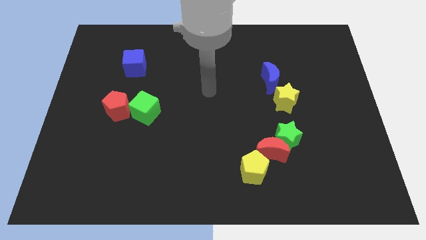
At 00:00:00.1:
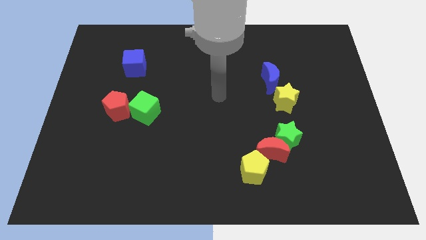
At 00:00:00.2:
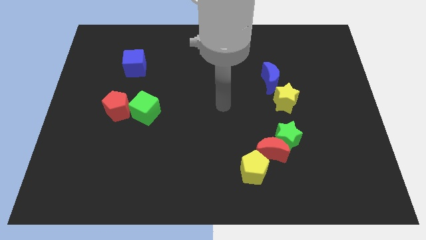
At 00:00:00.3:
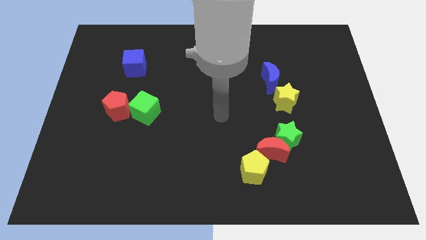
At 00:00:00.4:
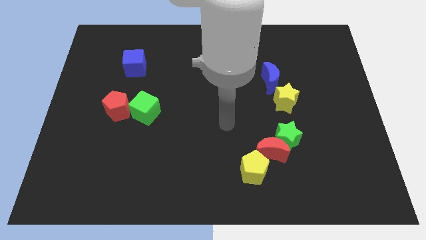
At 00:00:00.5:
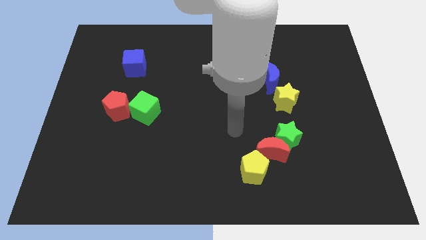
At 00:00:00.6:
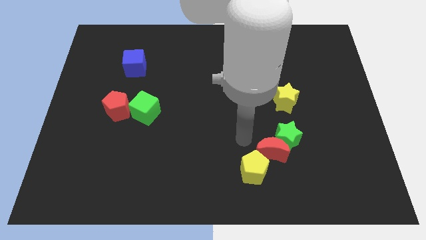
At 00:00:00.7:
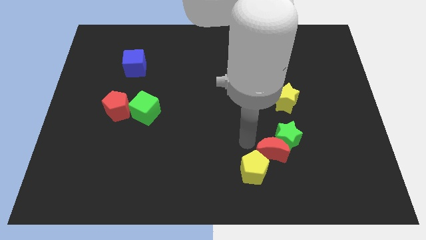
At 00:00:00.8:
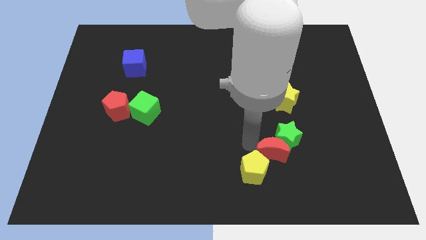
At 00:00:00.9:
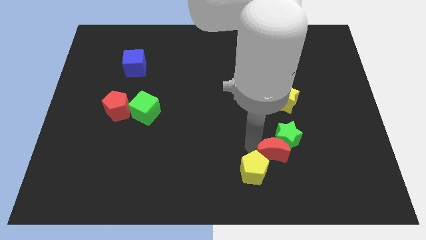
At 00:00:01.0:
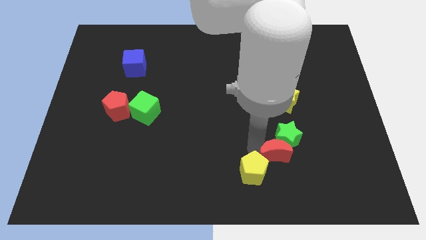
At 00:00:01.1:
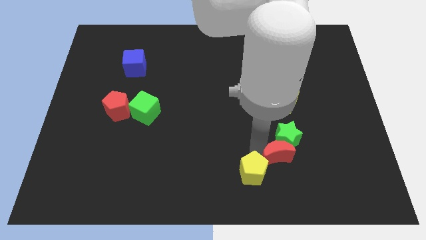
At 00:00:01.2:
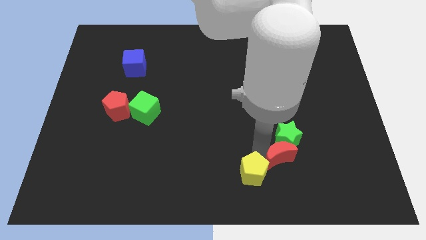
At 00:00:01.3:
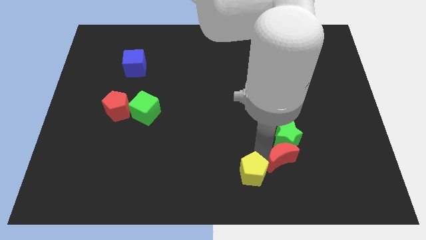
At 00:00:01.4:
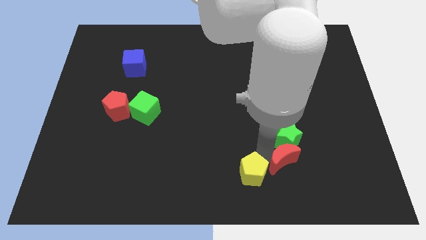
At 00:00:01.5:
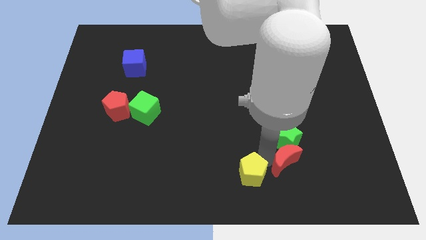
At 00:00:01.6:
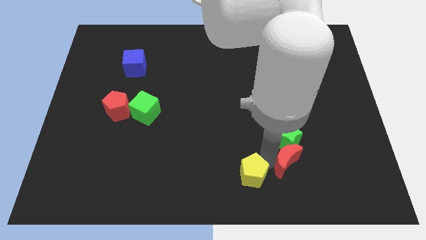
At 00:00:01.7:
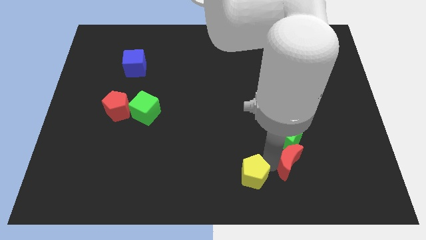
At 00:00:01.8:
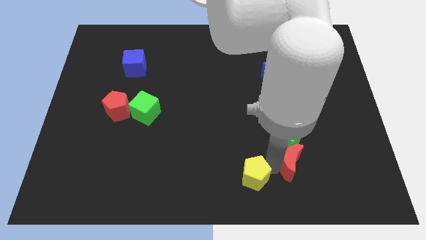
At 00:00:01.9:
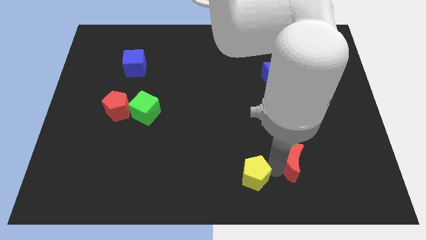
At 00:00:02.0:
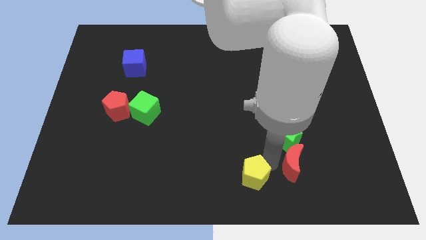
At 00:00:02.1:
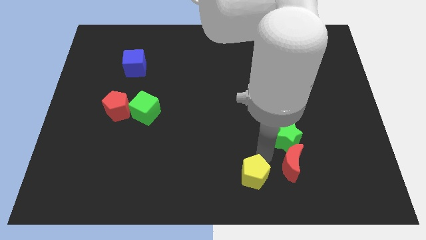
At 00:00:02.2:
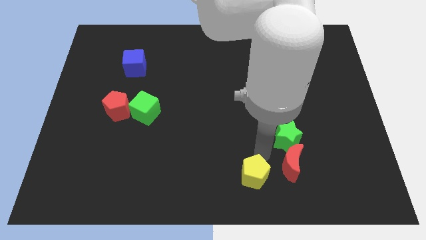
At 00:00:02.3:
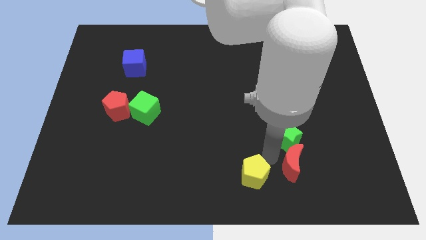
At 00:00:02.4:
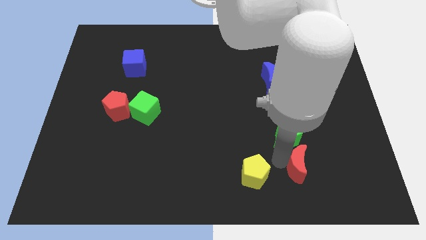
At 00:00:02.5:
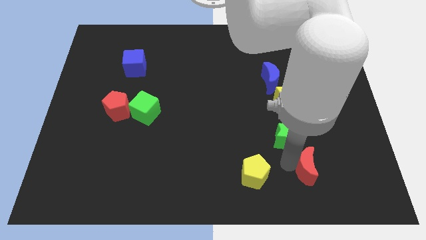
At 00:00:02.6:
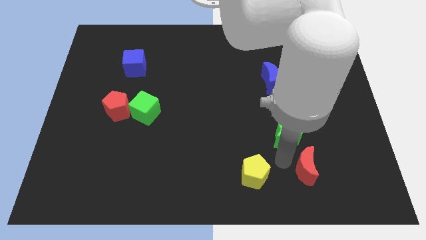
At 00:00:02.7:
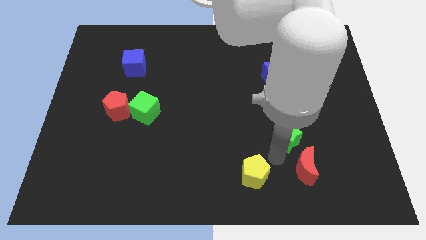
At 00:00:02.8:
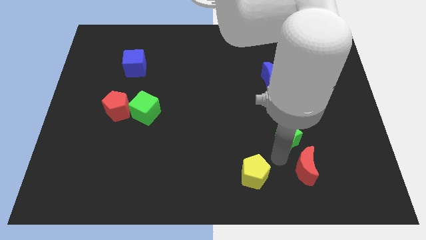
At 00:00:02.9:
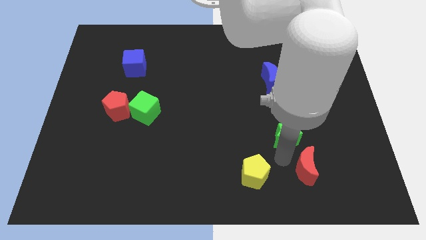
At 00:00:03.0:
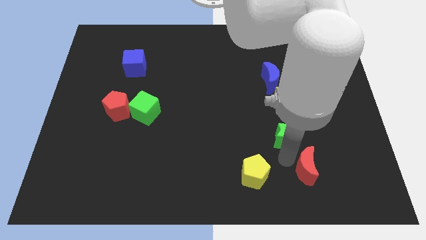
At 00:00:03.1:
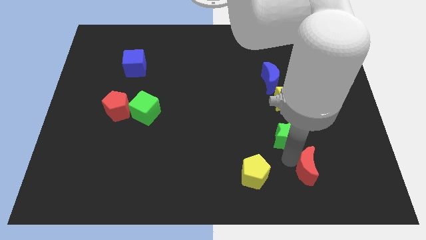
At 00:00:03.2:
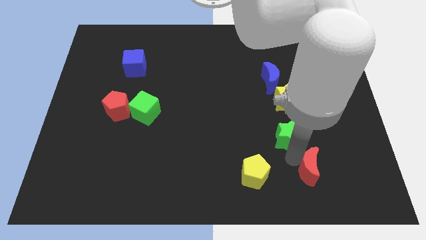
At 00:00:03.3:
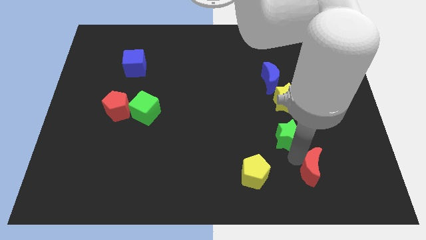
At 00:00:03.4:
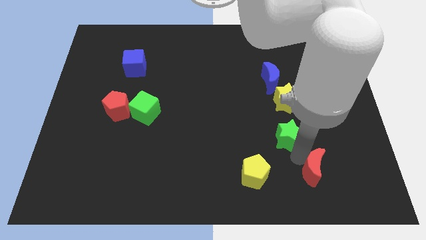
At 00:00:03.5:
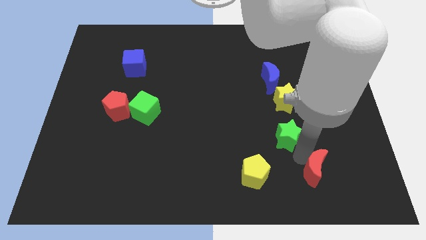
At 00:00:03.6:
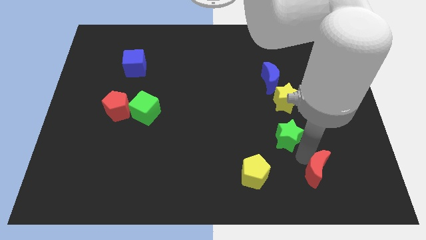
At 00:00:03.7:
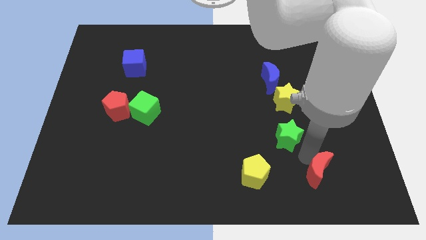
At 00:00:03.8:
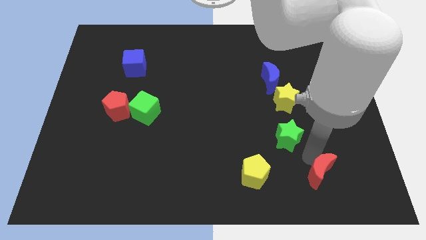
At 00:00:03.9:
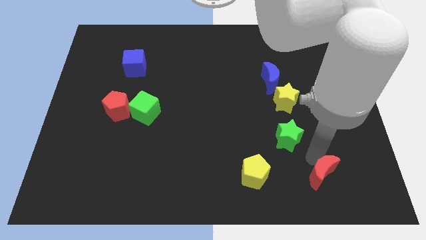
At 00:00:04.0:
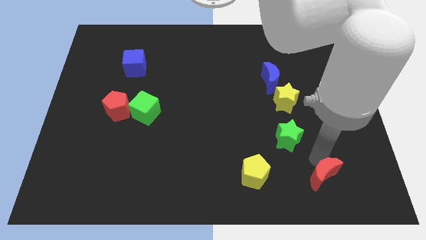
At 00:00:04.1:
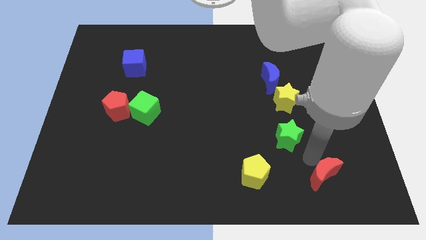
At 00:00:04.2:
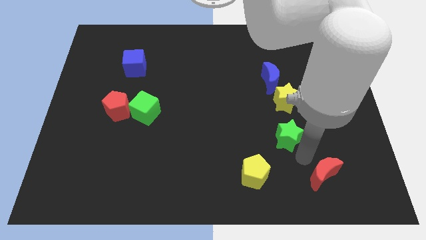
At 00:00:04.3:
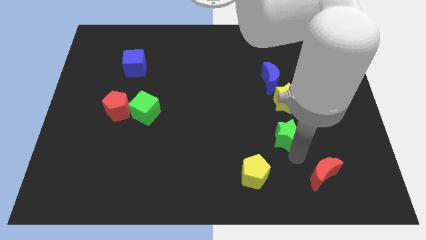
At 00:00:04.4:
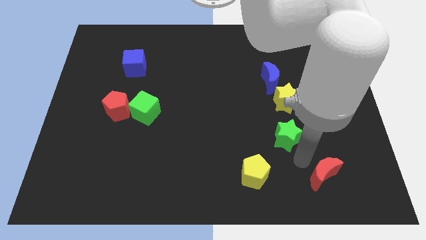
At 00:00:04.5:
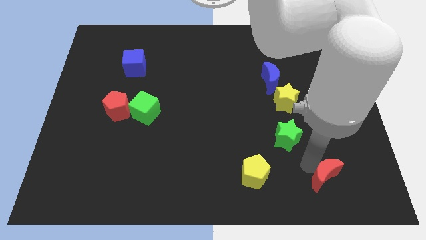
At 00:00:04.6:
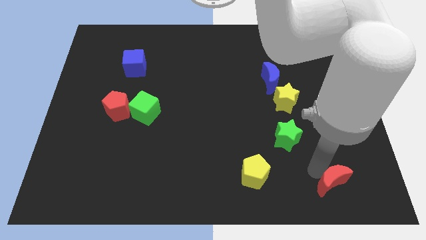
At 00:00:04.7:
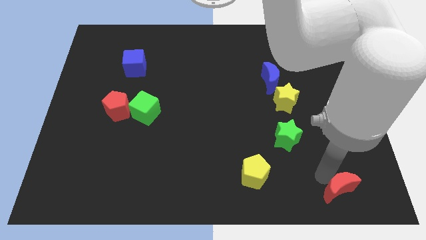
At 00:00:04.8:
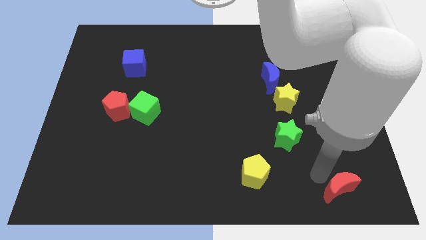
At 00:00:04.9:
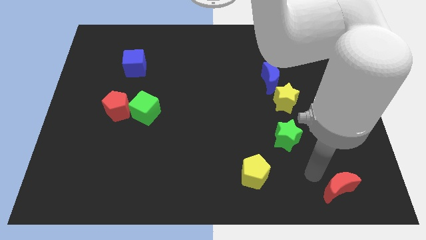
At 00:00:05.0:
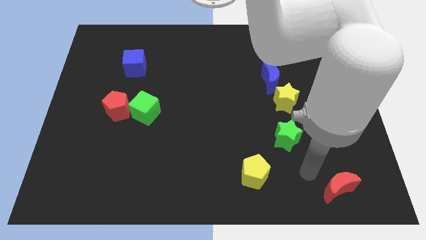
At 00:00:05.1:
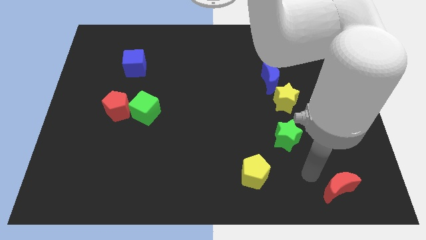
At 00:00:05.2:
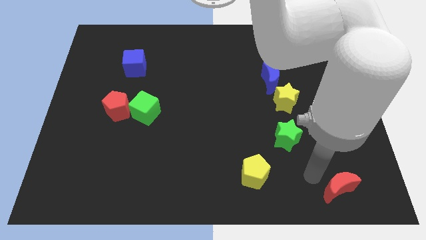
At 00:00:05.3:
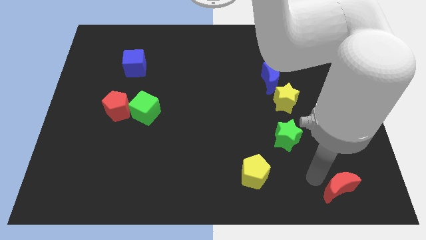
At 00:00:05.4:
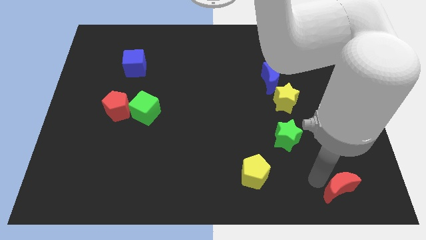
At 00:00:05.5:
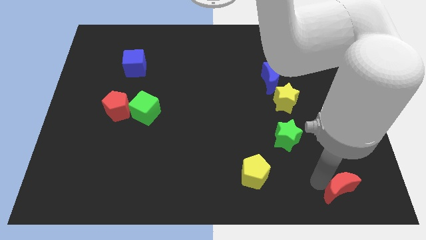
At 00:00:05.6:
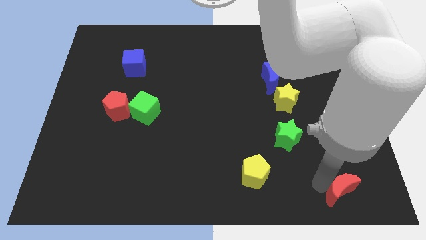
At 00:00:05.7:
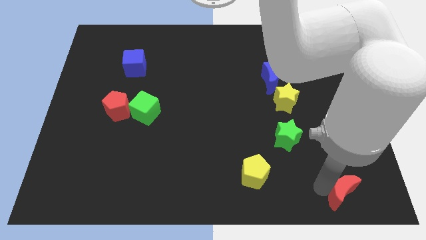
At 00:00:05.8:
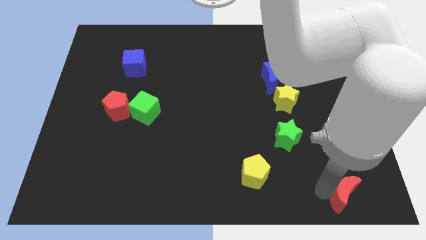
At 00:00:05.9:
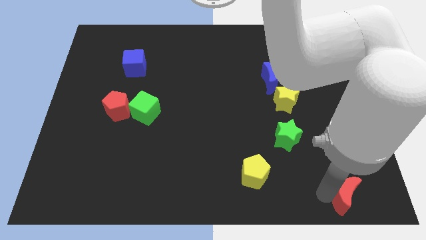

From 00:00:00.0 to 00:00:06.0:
slide the red moon to the bottom right of the board
